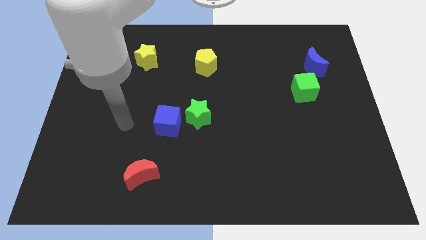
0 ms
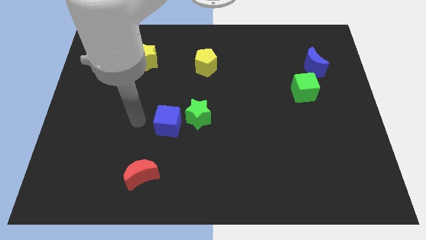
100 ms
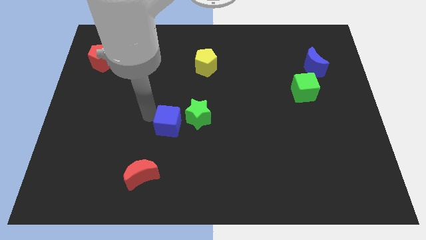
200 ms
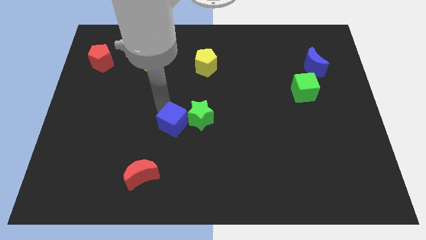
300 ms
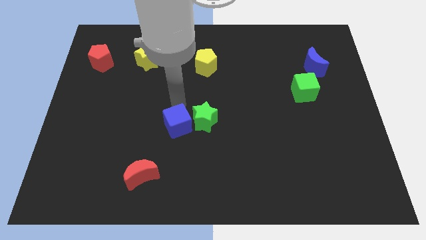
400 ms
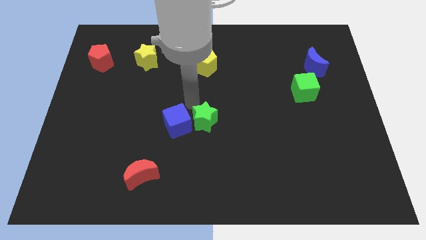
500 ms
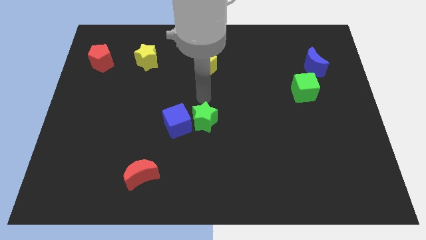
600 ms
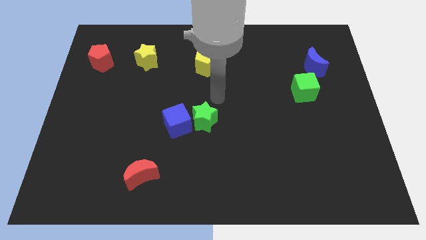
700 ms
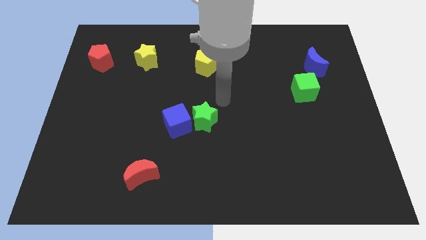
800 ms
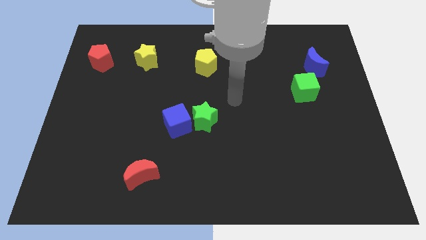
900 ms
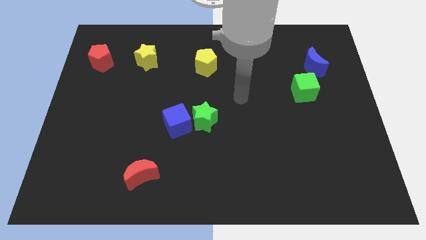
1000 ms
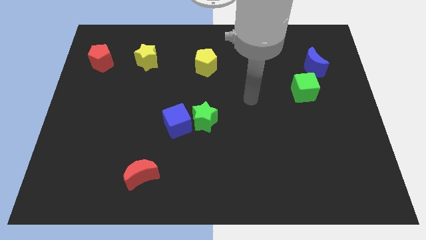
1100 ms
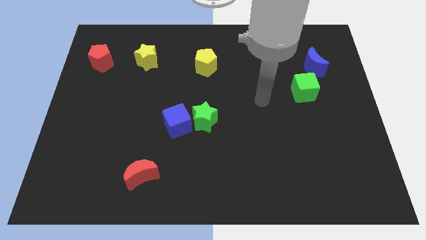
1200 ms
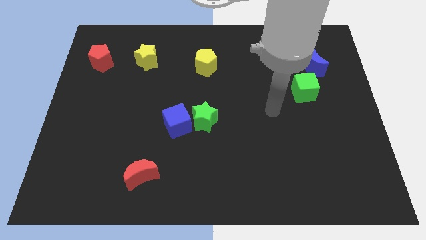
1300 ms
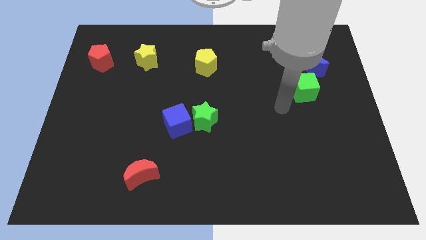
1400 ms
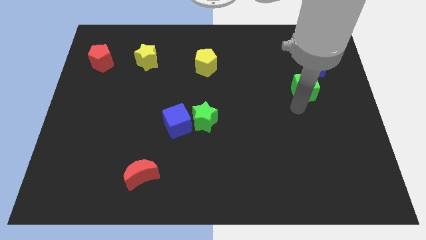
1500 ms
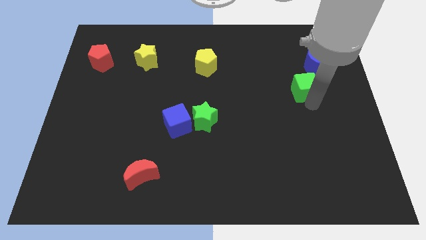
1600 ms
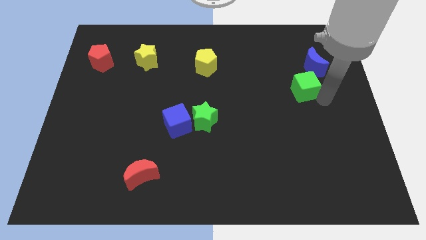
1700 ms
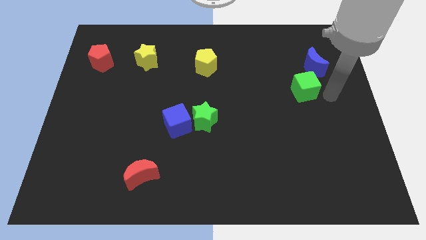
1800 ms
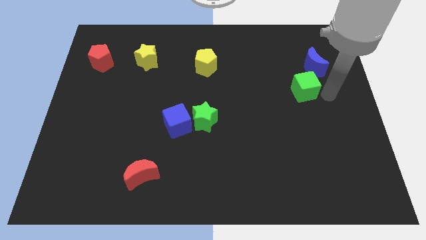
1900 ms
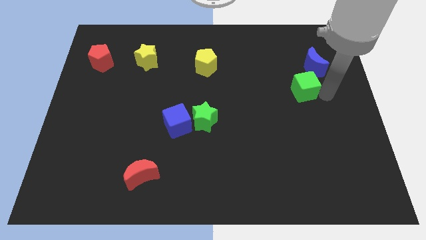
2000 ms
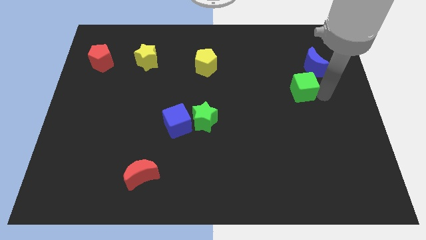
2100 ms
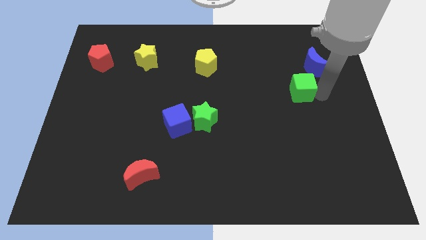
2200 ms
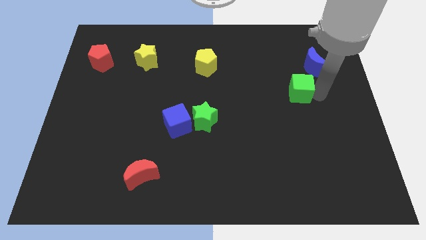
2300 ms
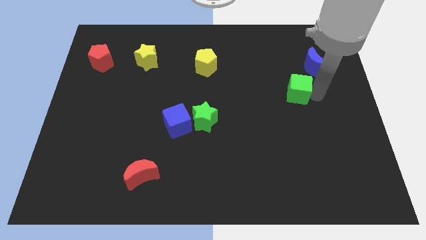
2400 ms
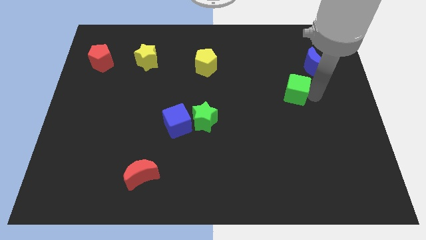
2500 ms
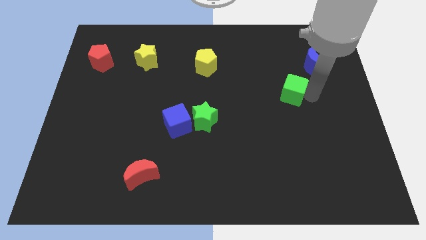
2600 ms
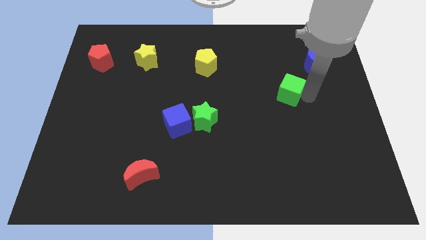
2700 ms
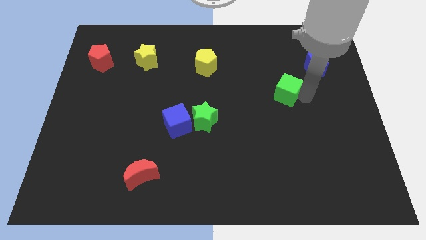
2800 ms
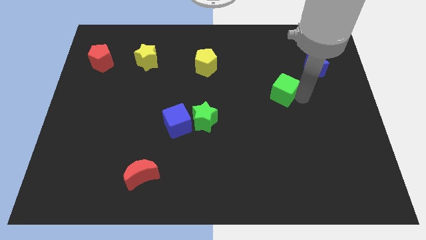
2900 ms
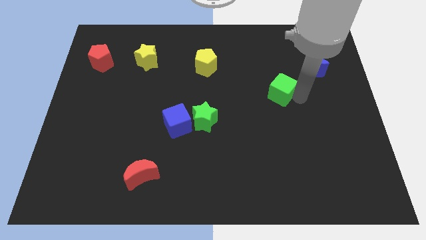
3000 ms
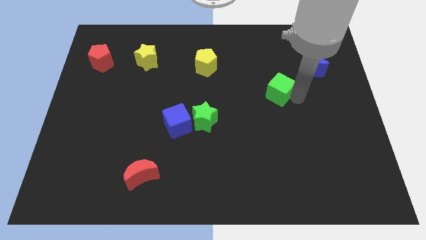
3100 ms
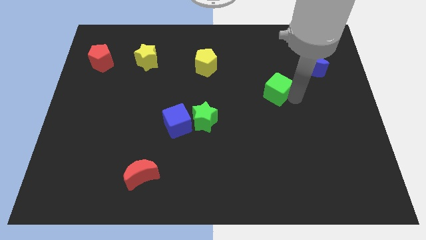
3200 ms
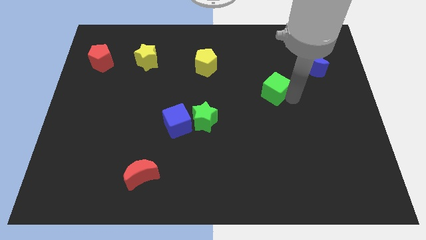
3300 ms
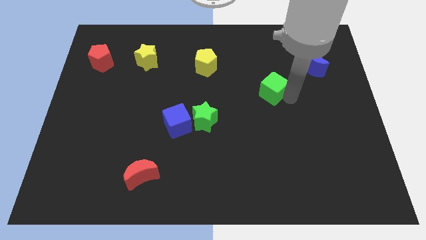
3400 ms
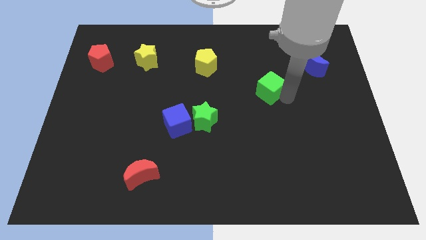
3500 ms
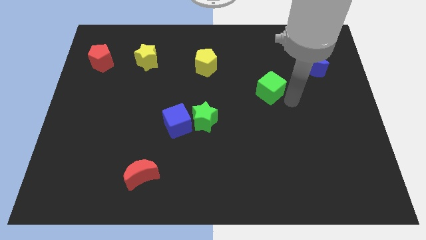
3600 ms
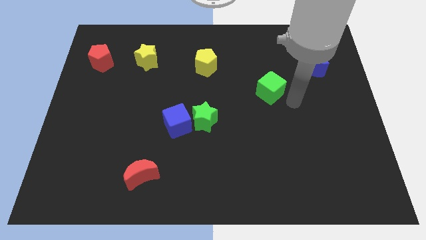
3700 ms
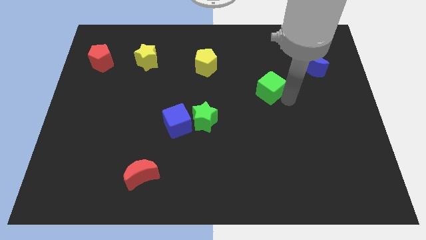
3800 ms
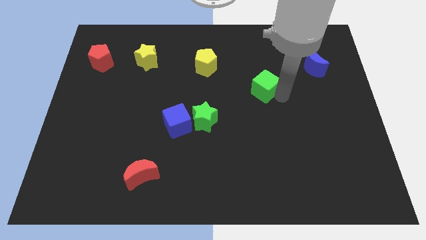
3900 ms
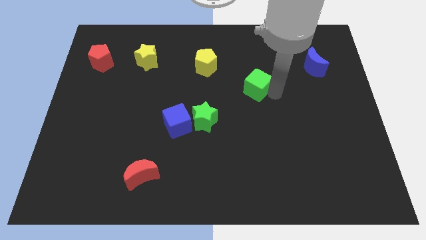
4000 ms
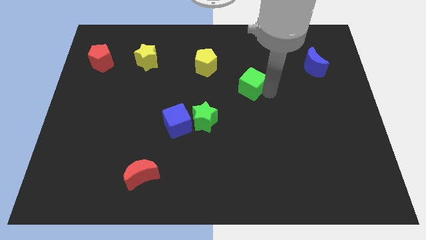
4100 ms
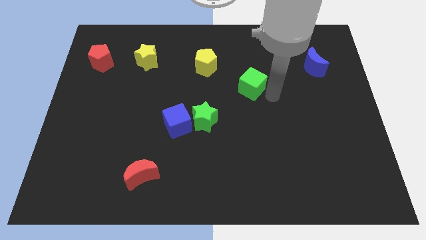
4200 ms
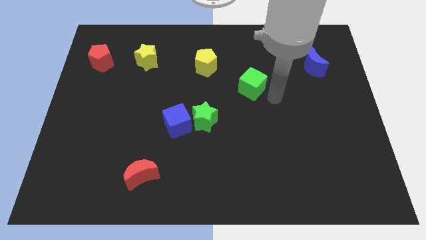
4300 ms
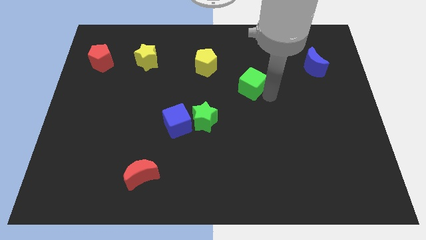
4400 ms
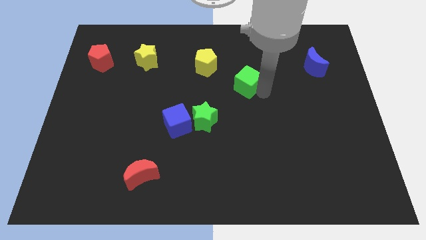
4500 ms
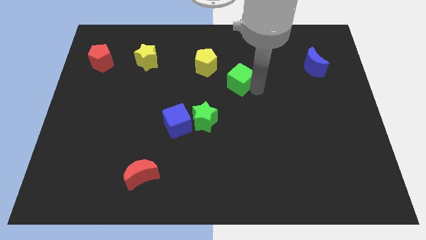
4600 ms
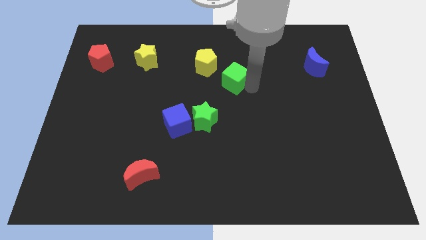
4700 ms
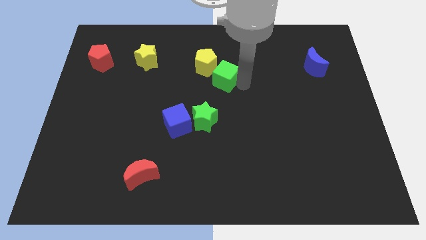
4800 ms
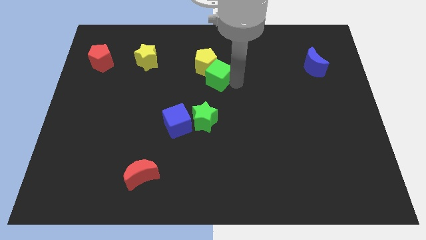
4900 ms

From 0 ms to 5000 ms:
put the green cube close to the yellow pentagon

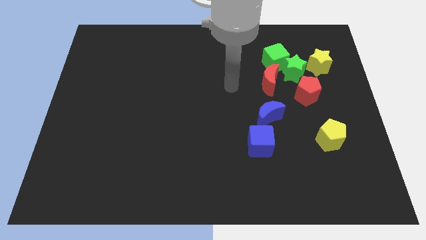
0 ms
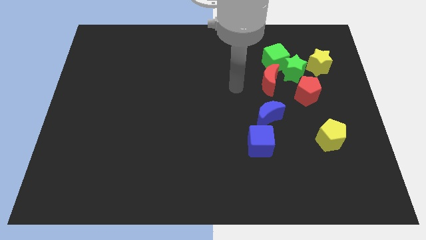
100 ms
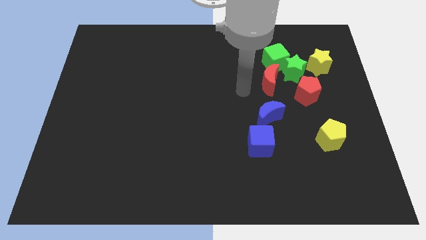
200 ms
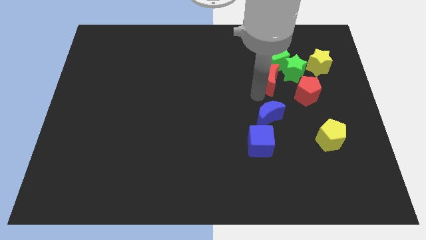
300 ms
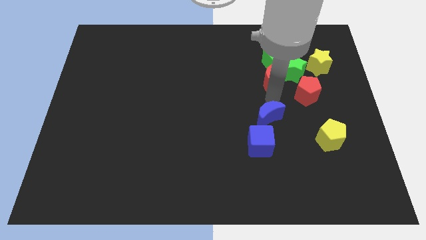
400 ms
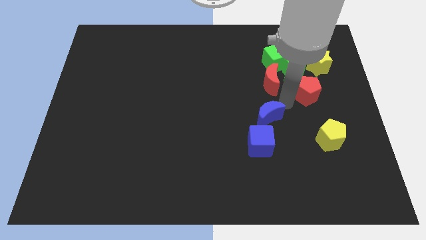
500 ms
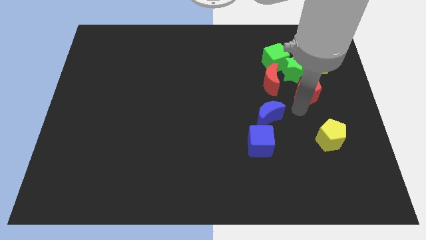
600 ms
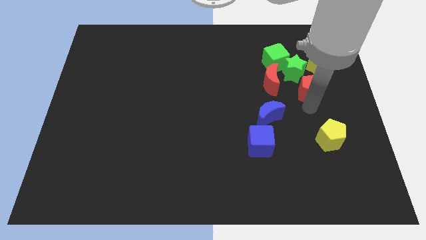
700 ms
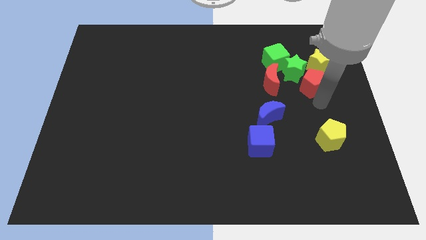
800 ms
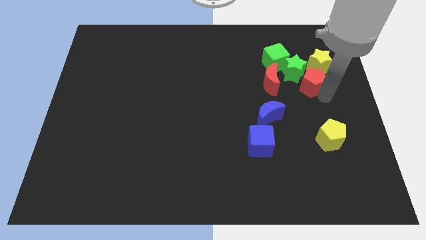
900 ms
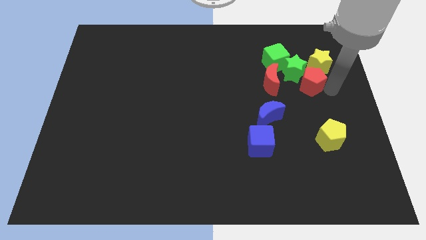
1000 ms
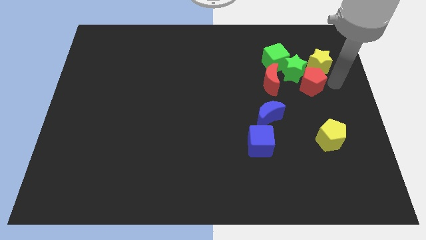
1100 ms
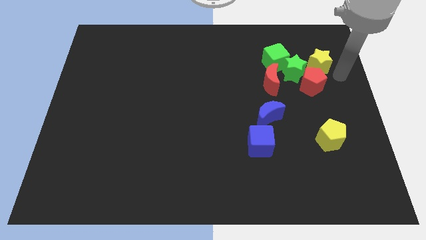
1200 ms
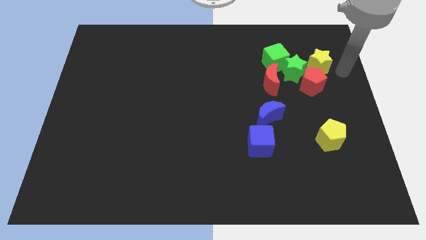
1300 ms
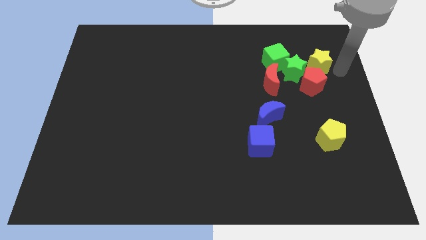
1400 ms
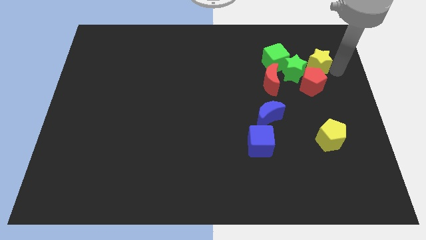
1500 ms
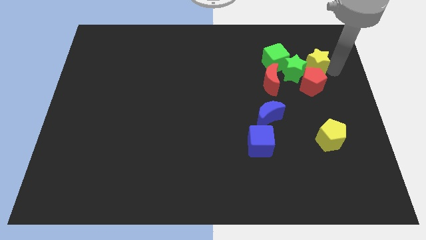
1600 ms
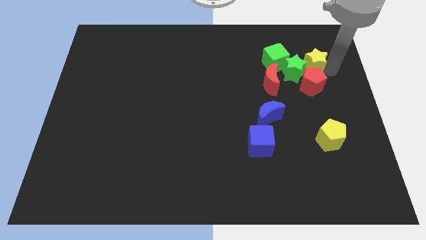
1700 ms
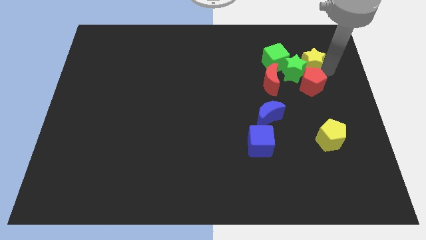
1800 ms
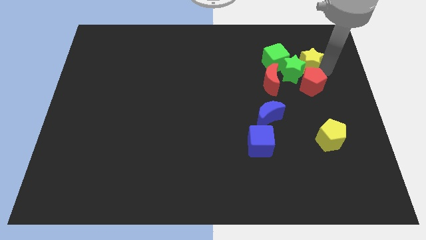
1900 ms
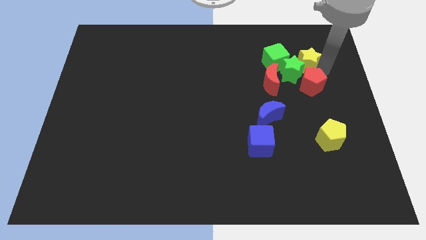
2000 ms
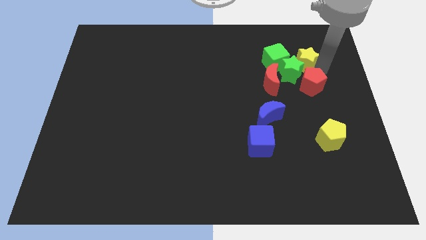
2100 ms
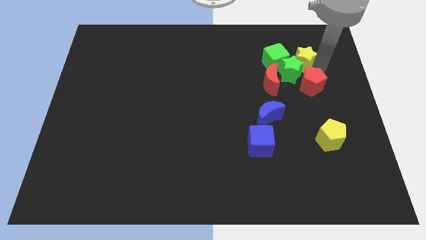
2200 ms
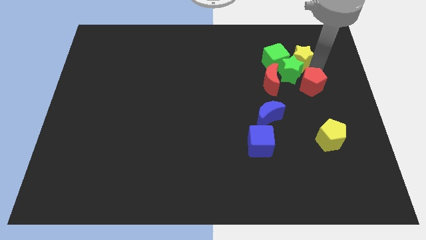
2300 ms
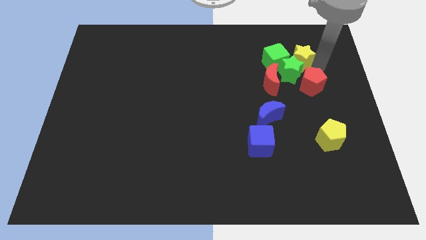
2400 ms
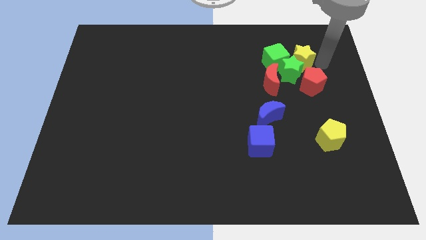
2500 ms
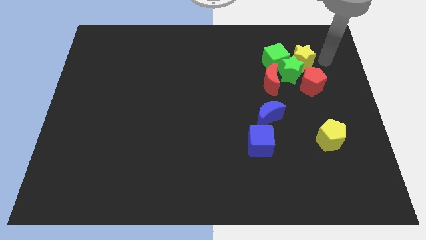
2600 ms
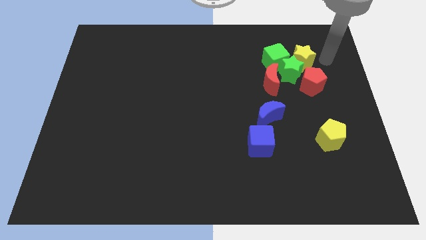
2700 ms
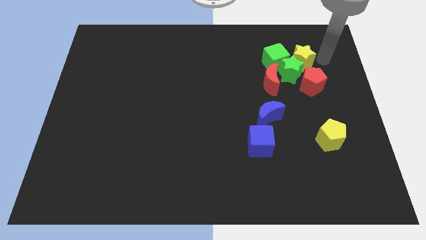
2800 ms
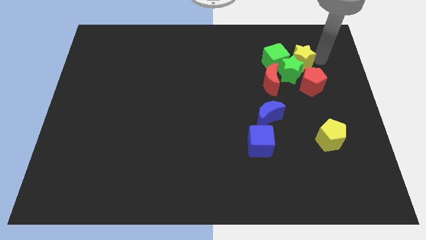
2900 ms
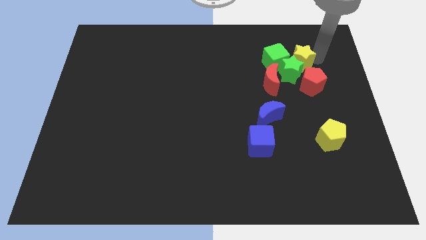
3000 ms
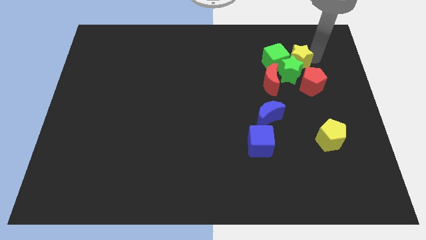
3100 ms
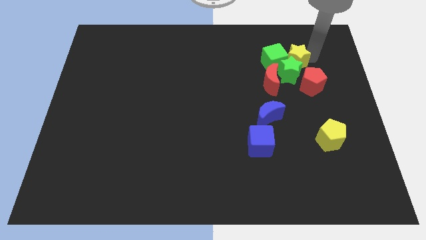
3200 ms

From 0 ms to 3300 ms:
push the yellow star to the green cube
